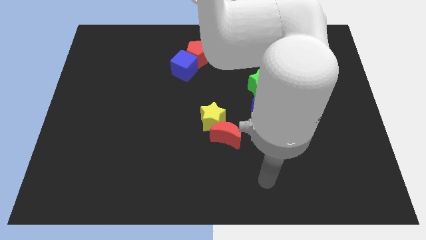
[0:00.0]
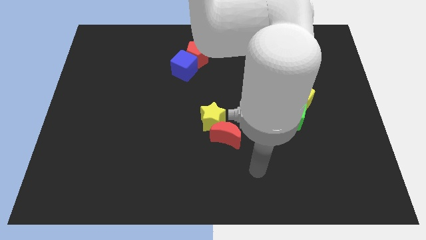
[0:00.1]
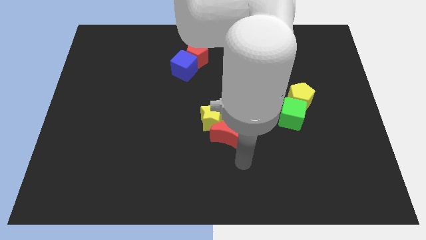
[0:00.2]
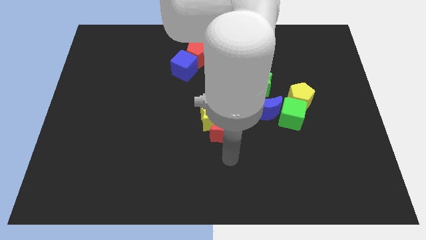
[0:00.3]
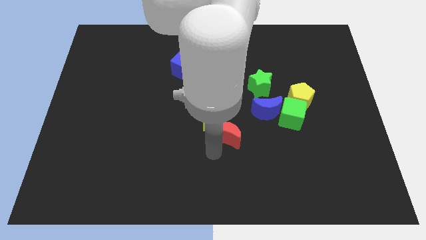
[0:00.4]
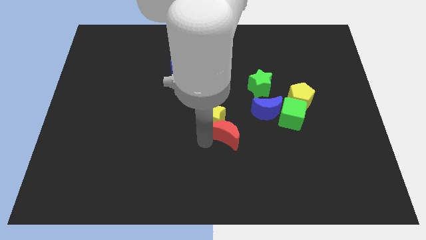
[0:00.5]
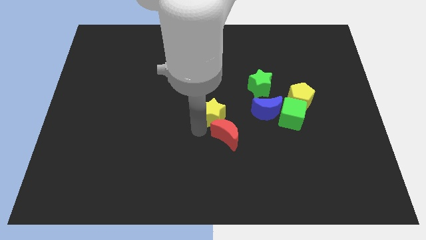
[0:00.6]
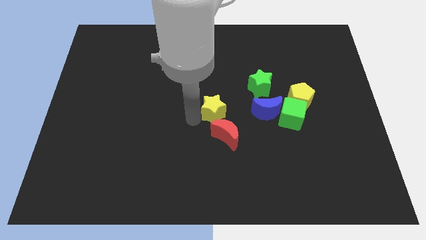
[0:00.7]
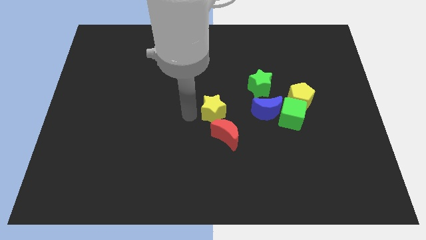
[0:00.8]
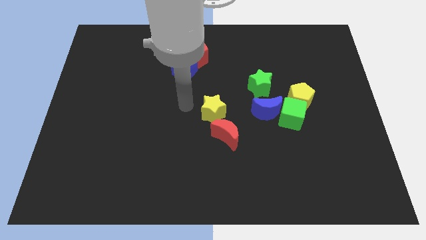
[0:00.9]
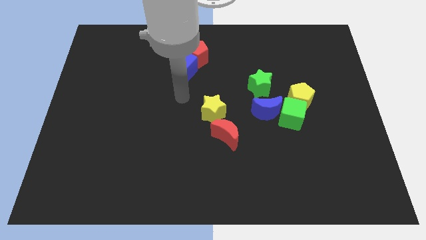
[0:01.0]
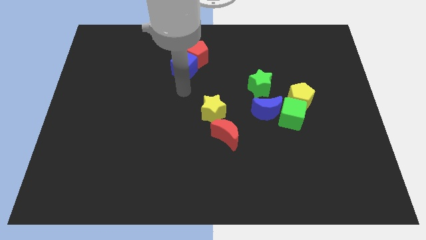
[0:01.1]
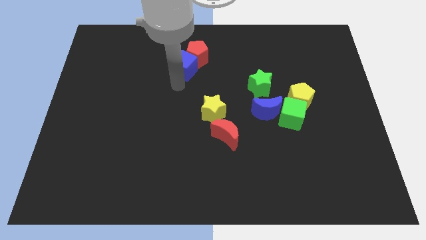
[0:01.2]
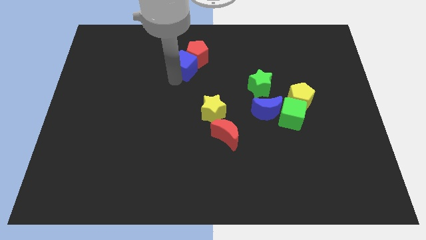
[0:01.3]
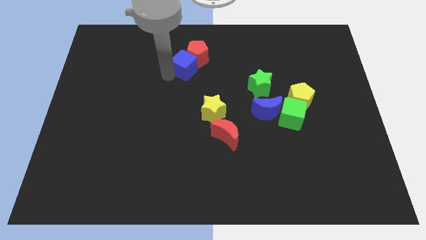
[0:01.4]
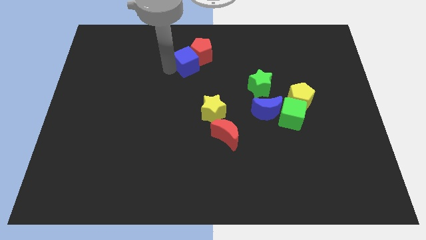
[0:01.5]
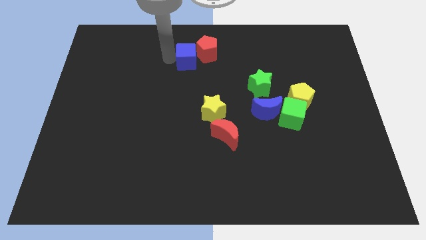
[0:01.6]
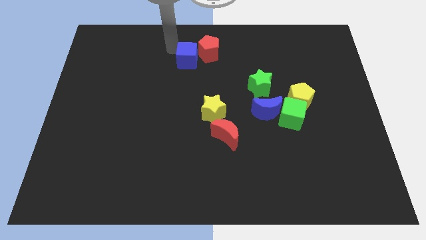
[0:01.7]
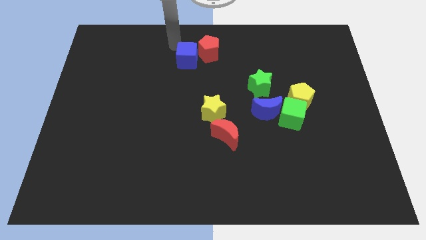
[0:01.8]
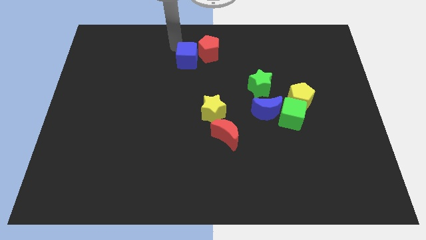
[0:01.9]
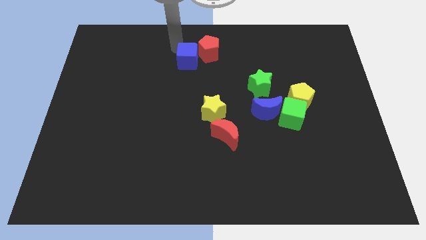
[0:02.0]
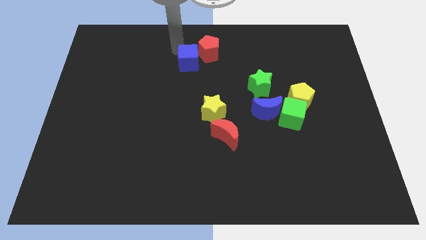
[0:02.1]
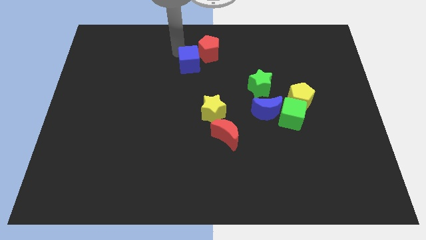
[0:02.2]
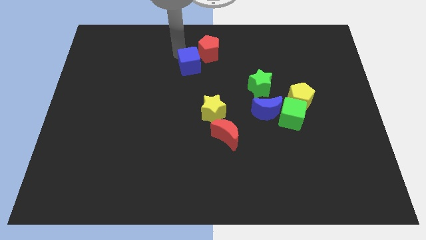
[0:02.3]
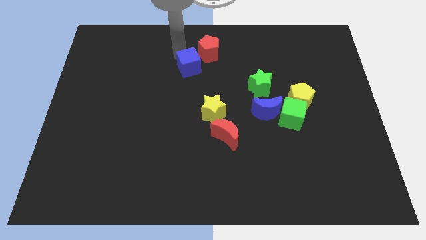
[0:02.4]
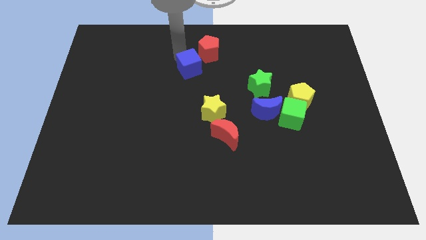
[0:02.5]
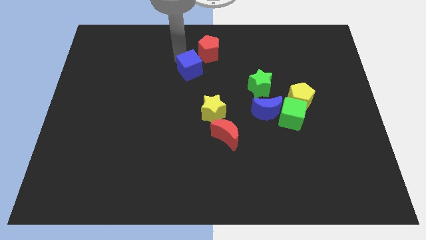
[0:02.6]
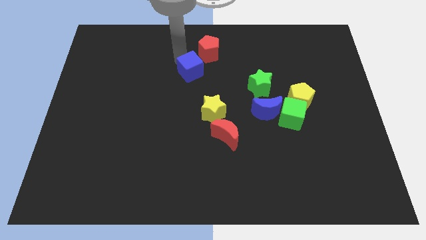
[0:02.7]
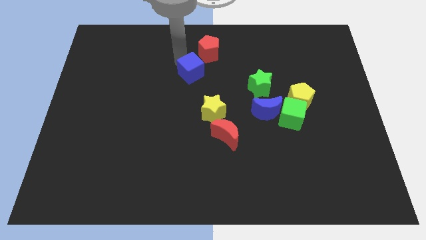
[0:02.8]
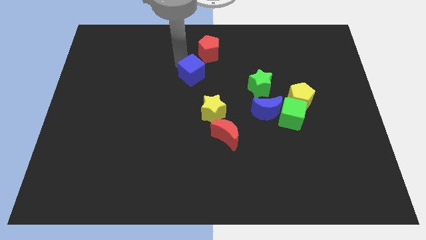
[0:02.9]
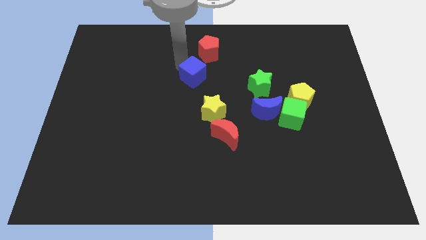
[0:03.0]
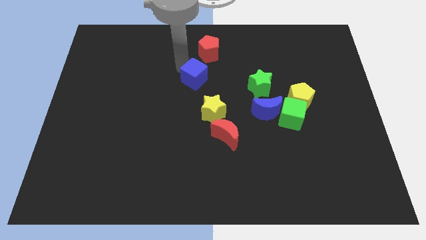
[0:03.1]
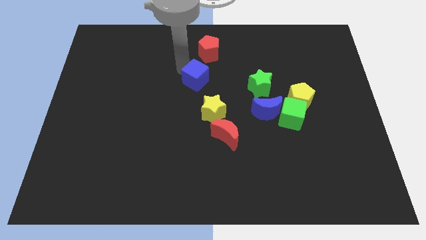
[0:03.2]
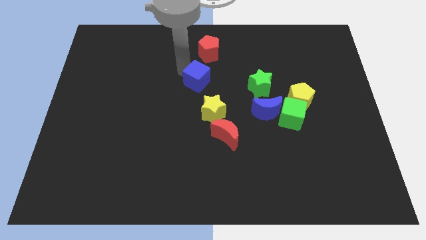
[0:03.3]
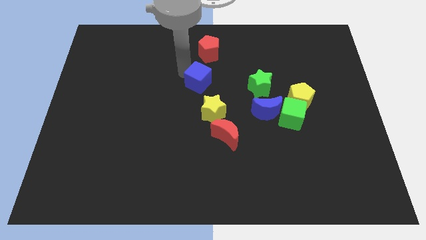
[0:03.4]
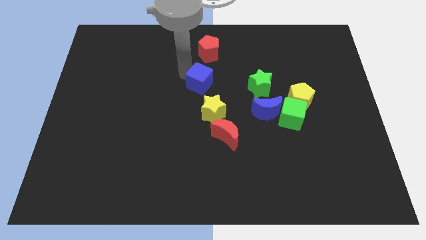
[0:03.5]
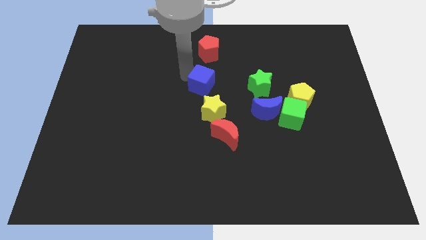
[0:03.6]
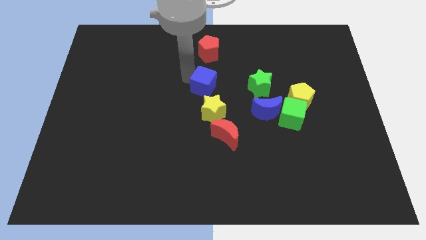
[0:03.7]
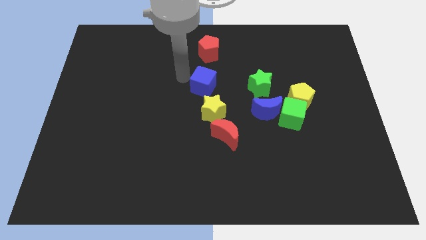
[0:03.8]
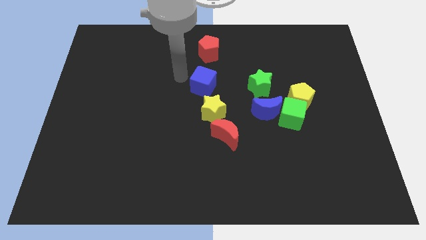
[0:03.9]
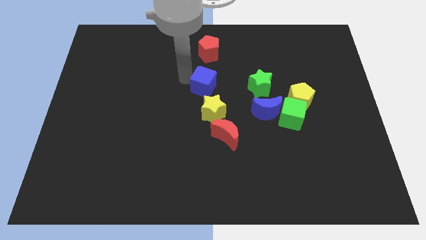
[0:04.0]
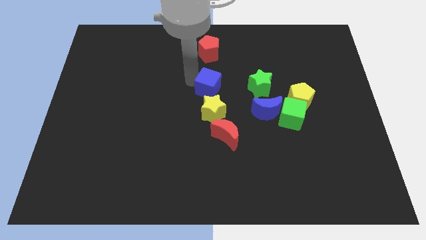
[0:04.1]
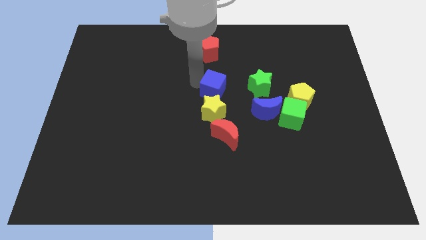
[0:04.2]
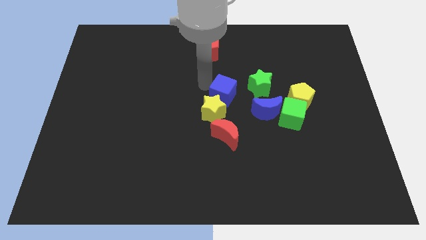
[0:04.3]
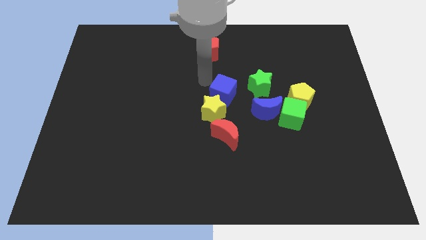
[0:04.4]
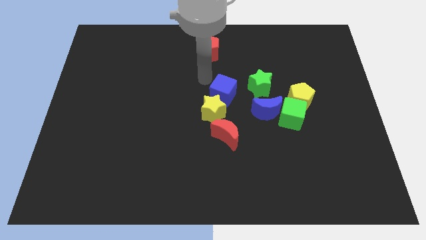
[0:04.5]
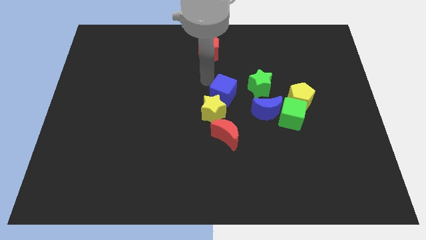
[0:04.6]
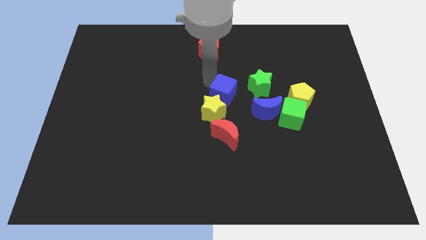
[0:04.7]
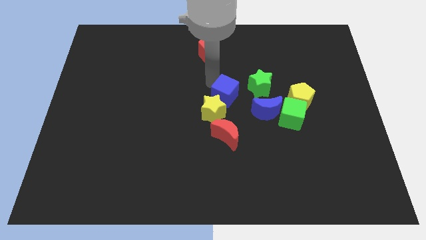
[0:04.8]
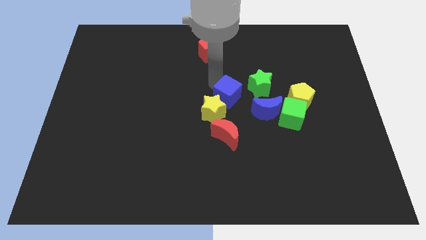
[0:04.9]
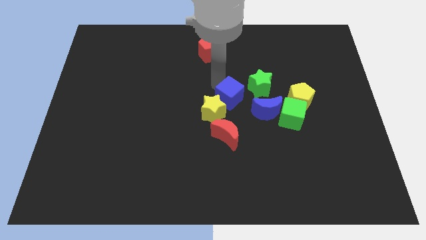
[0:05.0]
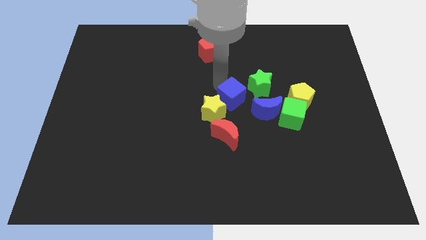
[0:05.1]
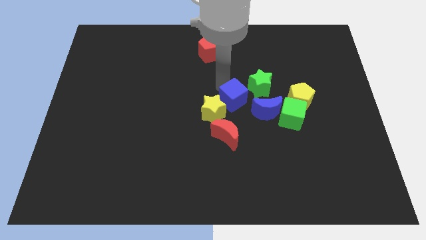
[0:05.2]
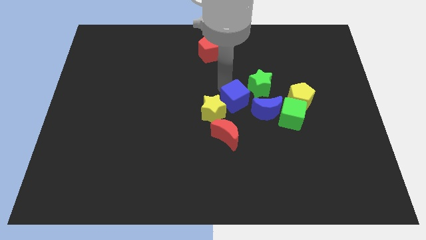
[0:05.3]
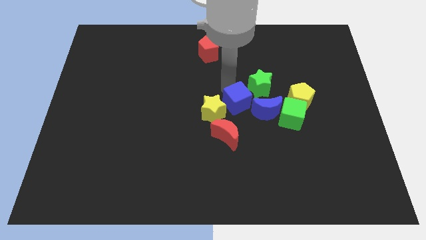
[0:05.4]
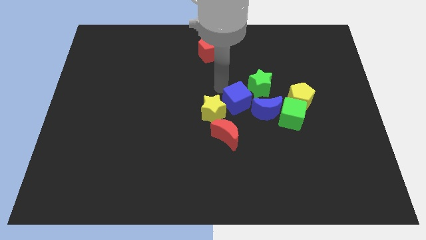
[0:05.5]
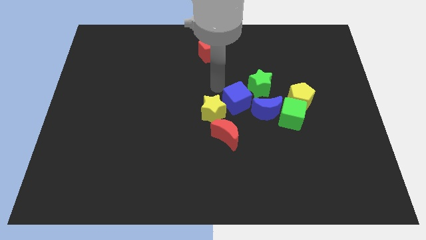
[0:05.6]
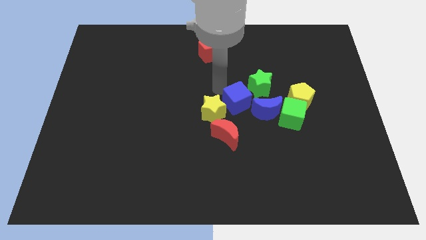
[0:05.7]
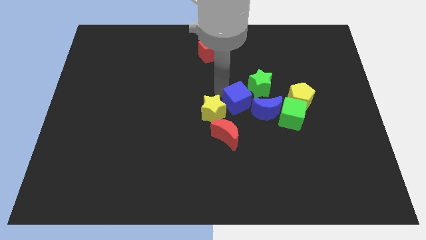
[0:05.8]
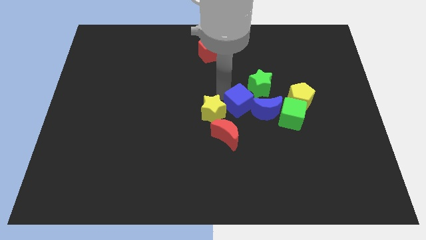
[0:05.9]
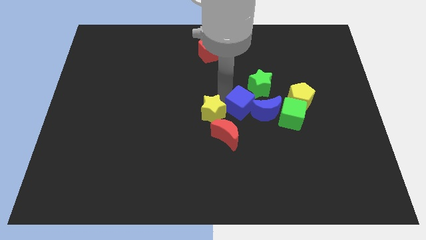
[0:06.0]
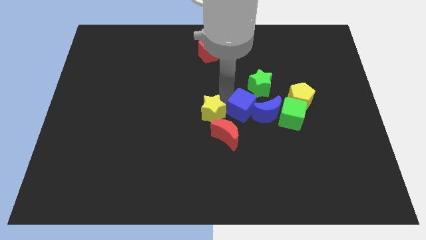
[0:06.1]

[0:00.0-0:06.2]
push the blue cube to the bottom of the green star
